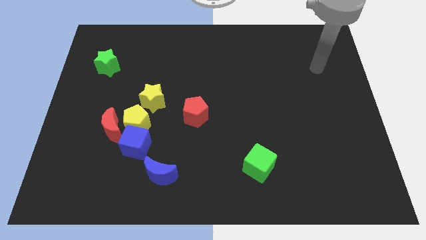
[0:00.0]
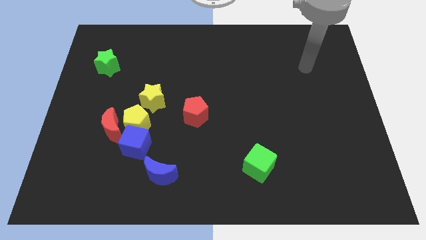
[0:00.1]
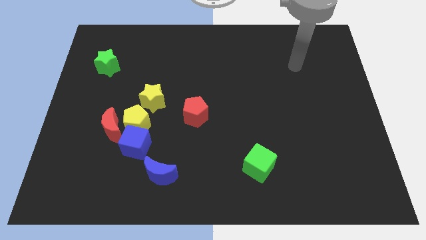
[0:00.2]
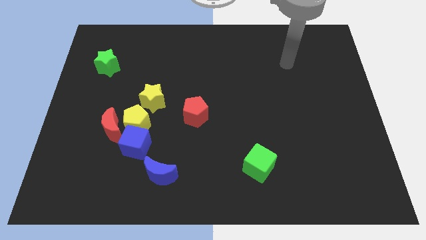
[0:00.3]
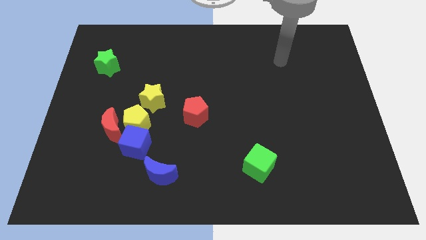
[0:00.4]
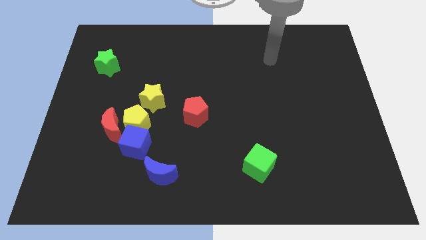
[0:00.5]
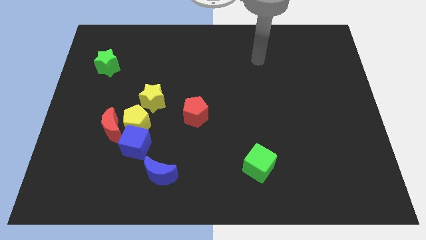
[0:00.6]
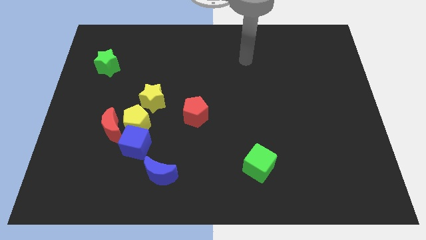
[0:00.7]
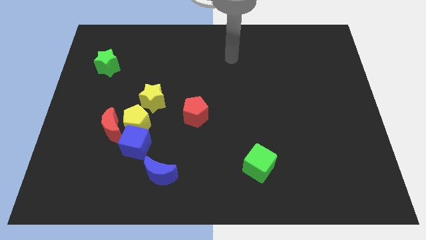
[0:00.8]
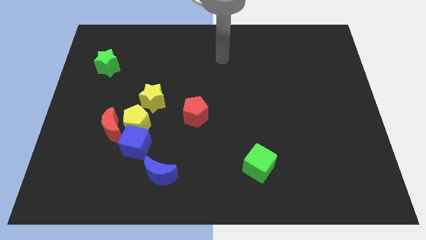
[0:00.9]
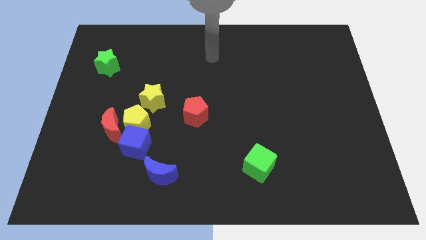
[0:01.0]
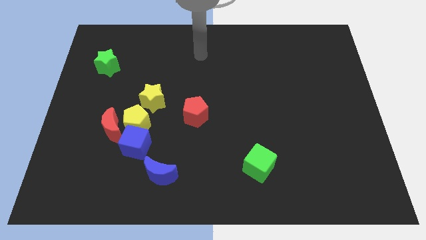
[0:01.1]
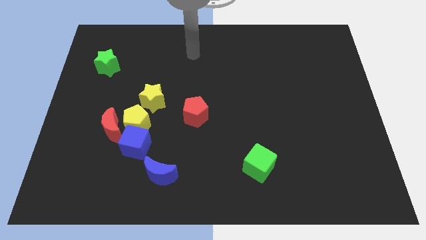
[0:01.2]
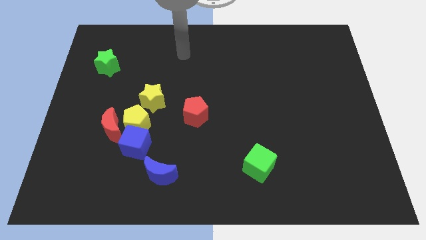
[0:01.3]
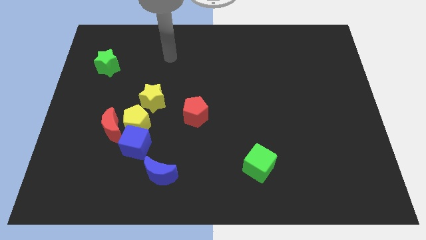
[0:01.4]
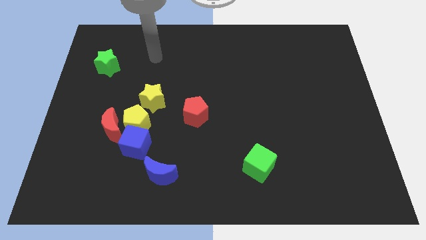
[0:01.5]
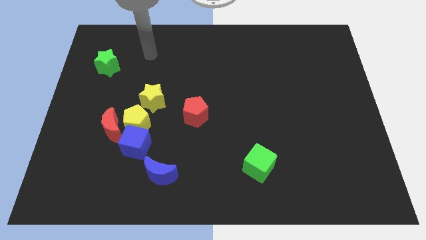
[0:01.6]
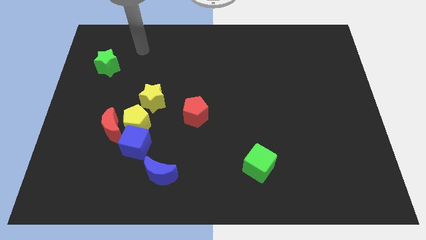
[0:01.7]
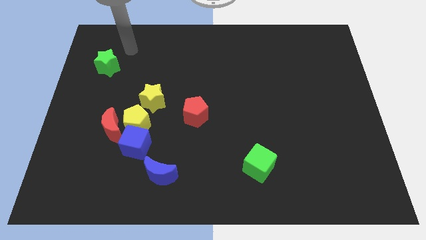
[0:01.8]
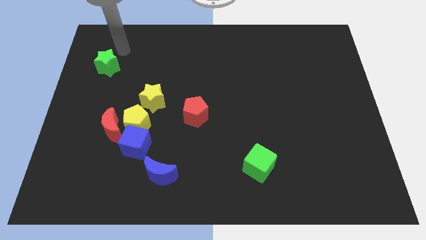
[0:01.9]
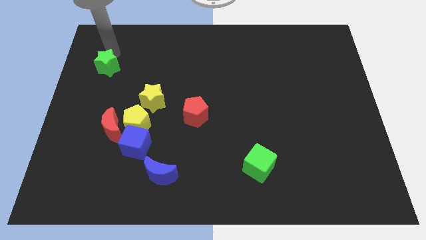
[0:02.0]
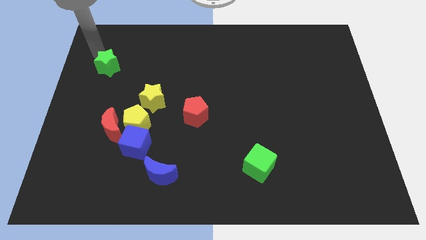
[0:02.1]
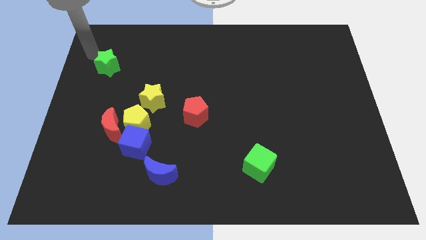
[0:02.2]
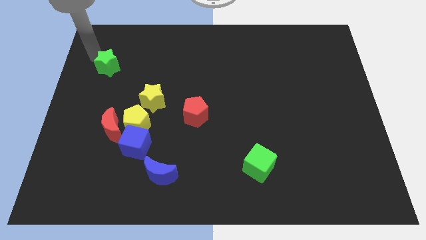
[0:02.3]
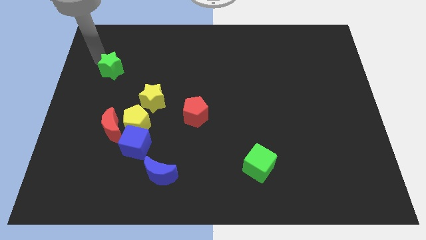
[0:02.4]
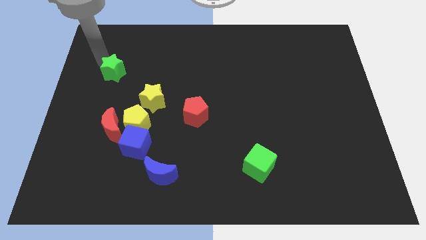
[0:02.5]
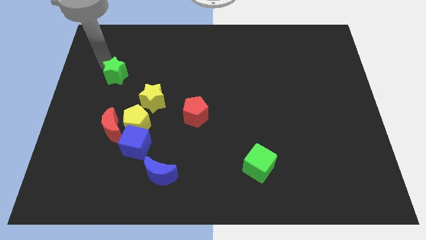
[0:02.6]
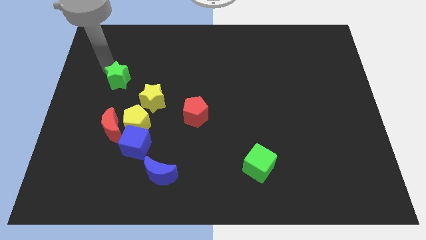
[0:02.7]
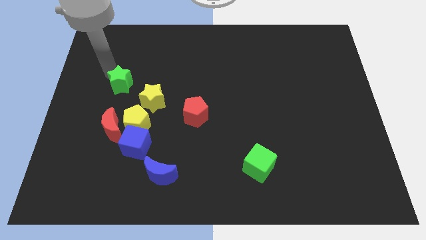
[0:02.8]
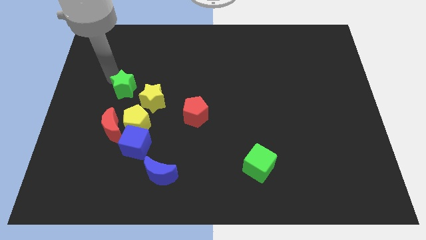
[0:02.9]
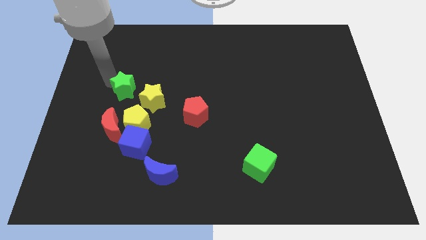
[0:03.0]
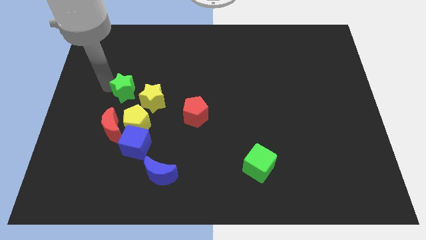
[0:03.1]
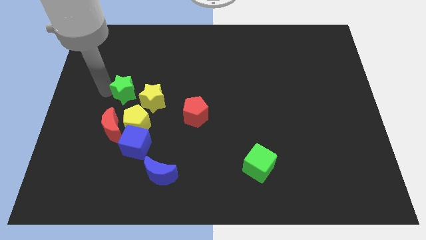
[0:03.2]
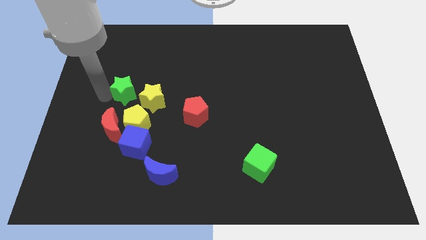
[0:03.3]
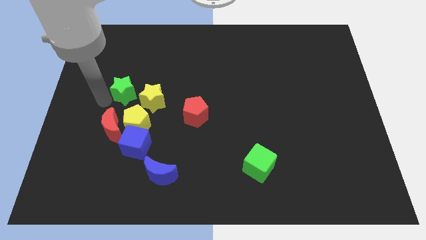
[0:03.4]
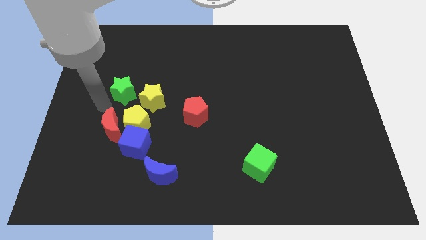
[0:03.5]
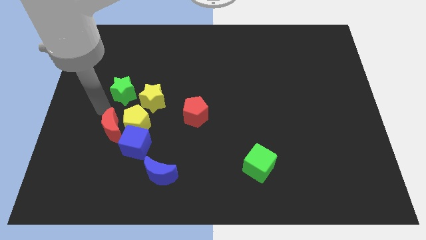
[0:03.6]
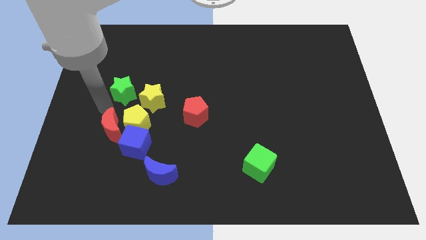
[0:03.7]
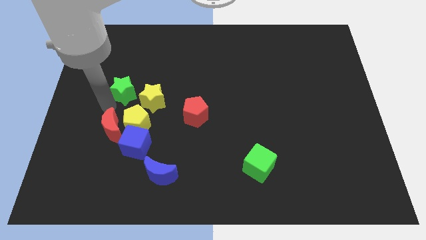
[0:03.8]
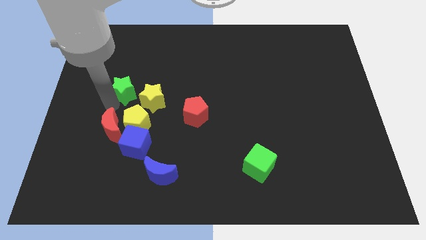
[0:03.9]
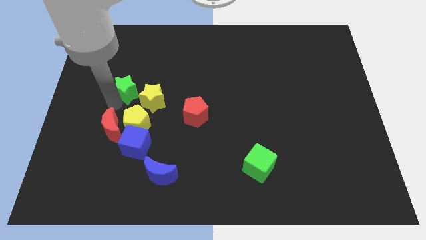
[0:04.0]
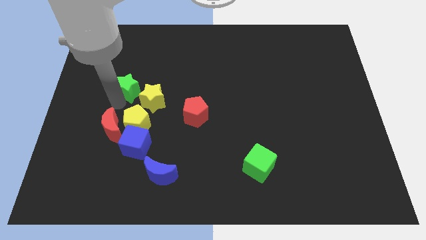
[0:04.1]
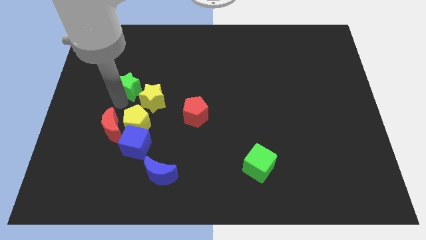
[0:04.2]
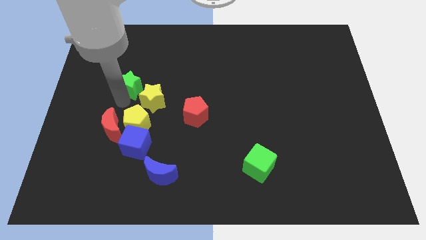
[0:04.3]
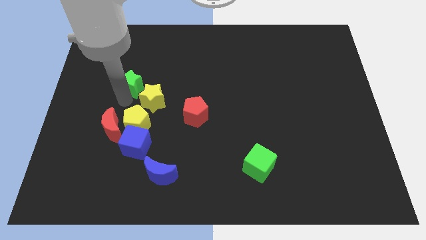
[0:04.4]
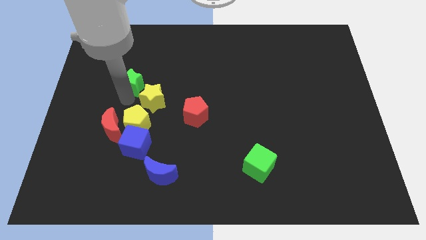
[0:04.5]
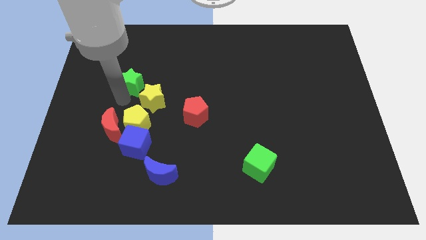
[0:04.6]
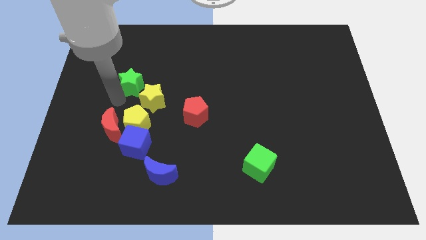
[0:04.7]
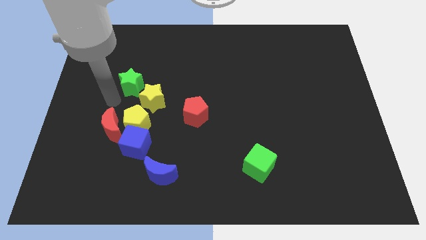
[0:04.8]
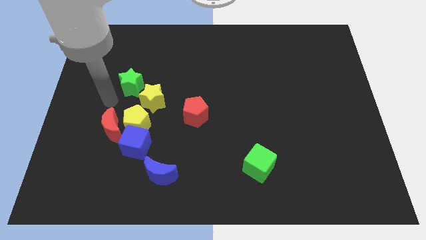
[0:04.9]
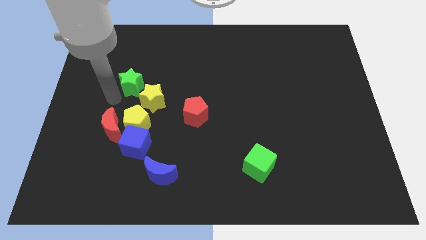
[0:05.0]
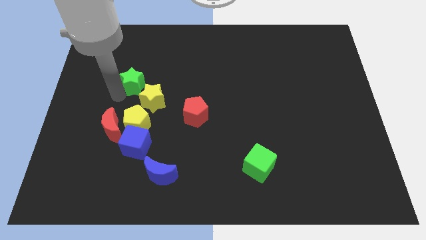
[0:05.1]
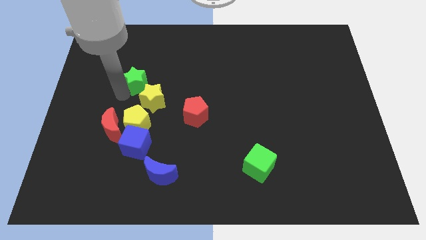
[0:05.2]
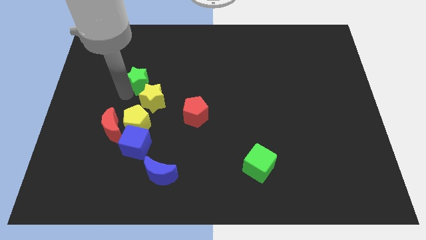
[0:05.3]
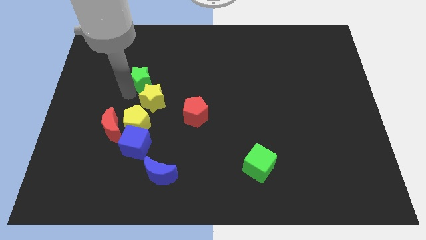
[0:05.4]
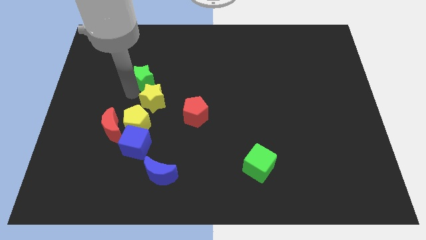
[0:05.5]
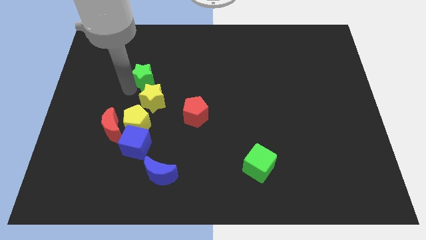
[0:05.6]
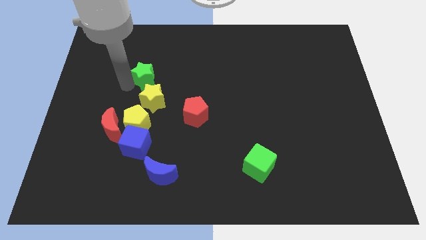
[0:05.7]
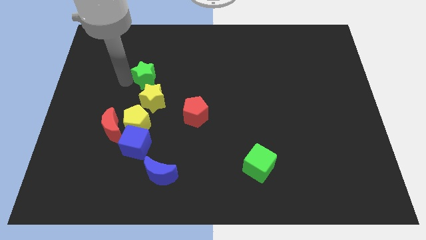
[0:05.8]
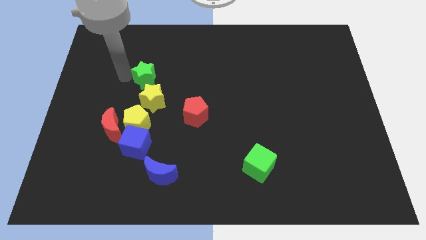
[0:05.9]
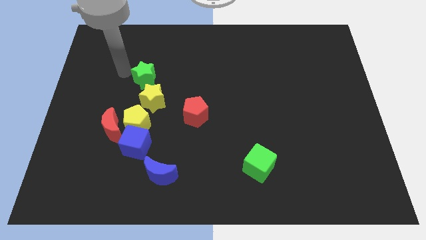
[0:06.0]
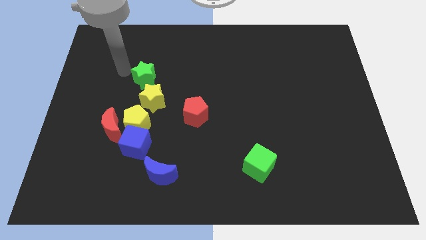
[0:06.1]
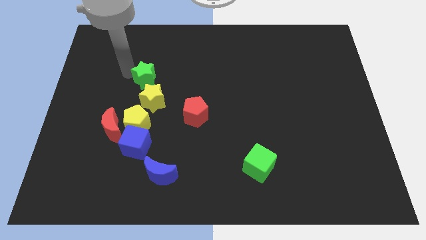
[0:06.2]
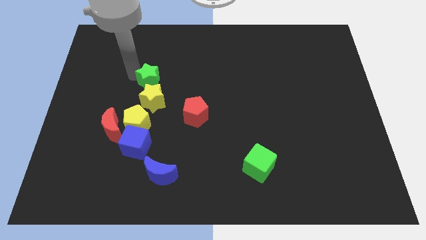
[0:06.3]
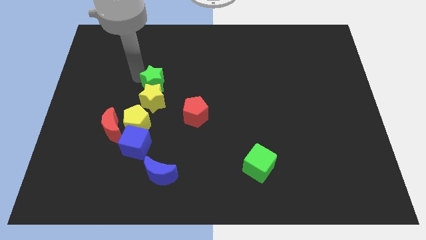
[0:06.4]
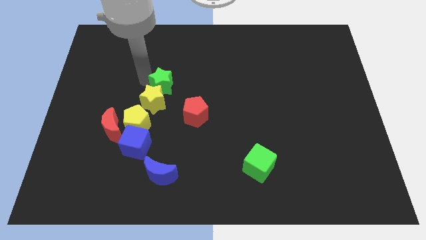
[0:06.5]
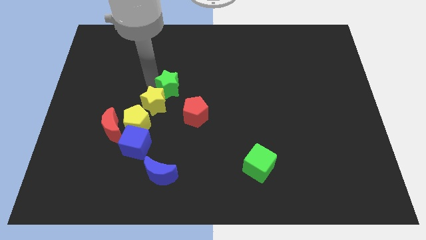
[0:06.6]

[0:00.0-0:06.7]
move the green star to the center
